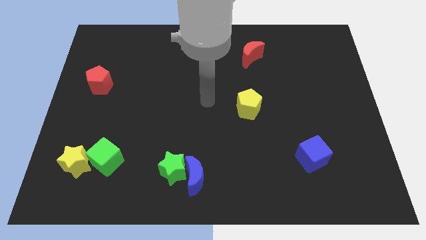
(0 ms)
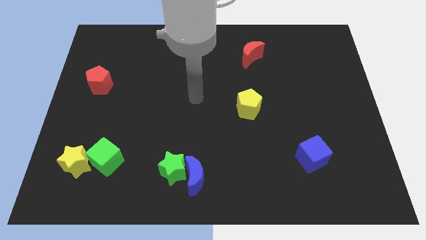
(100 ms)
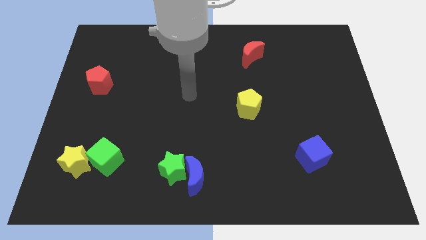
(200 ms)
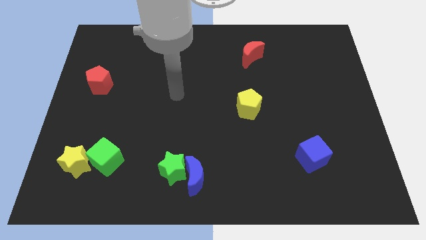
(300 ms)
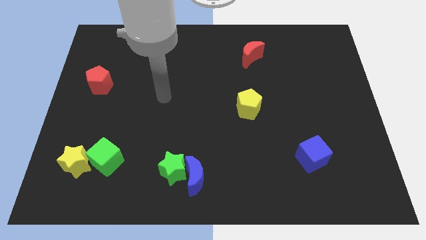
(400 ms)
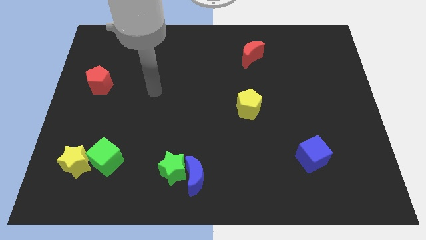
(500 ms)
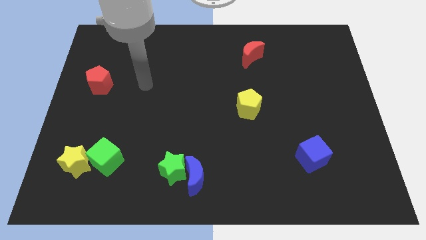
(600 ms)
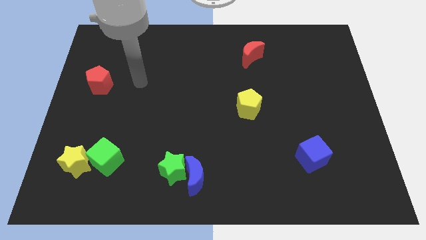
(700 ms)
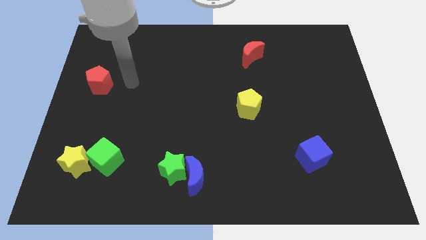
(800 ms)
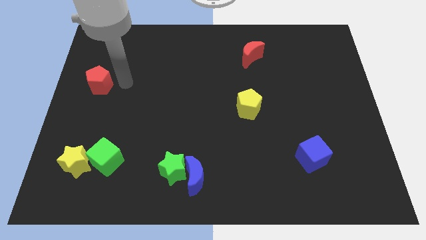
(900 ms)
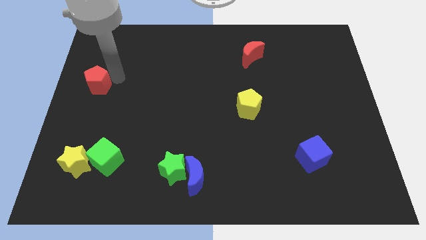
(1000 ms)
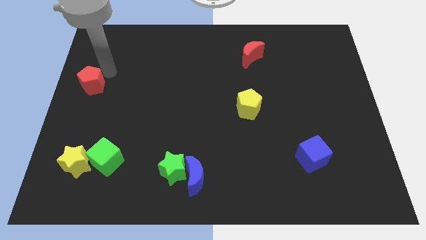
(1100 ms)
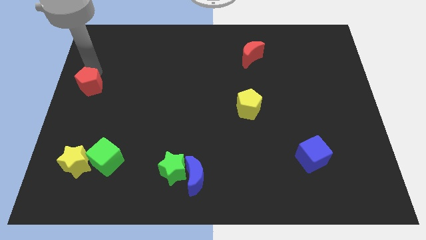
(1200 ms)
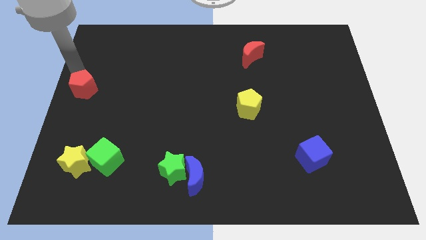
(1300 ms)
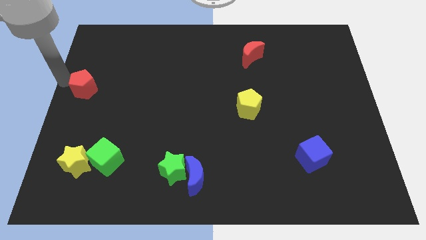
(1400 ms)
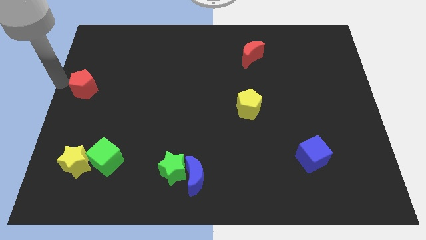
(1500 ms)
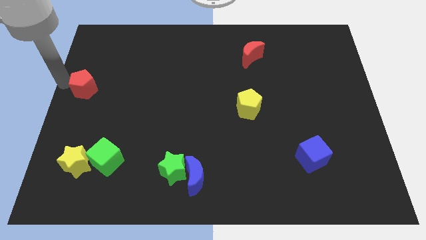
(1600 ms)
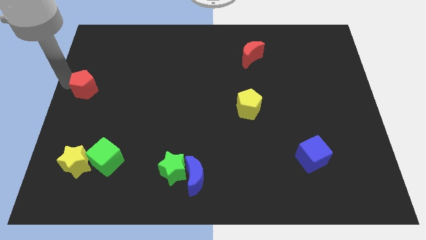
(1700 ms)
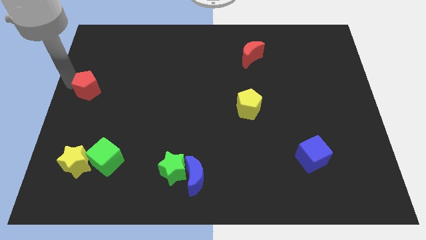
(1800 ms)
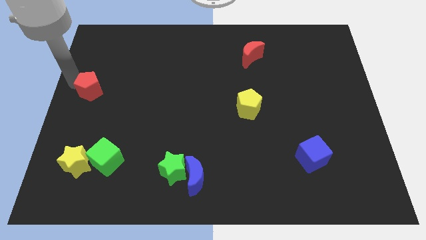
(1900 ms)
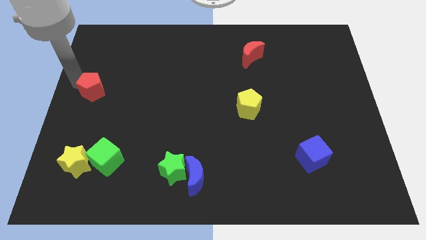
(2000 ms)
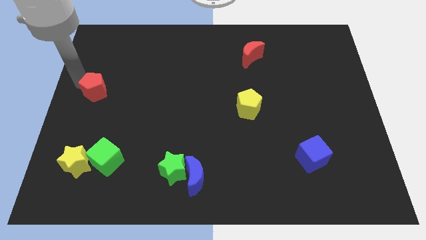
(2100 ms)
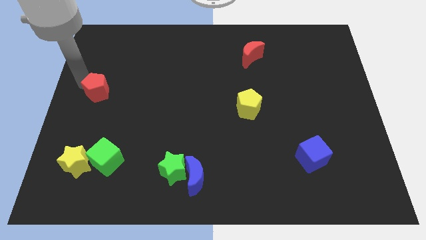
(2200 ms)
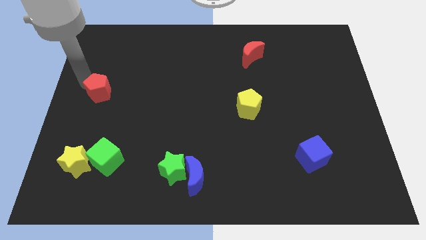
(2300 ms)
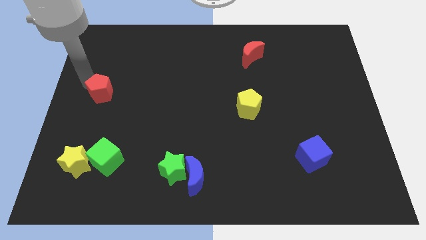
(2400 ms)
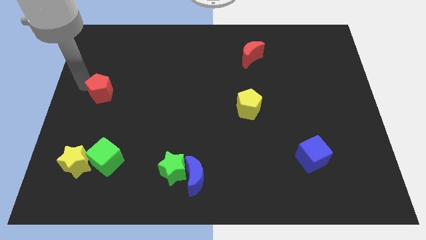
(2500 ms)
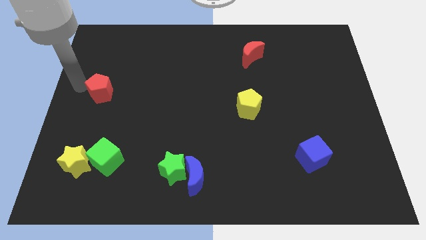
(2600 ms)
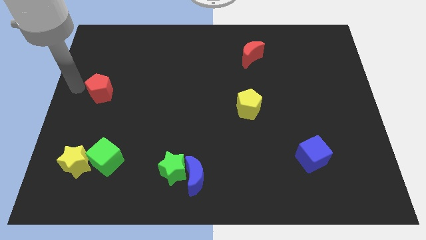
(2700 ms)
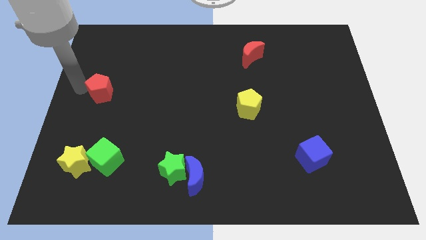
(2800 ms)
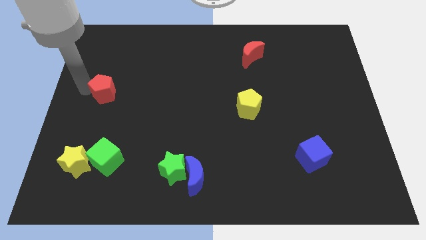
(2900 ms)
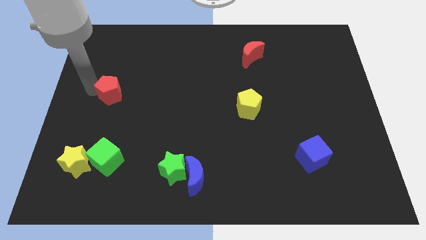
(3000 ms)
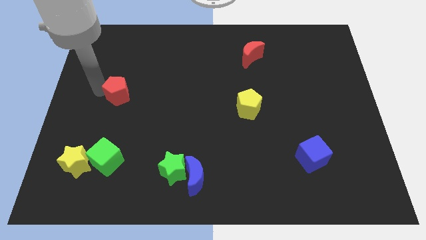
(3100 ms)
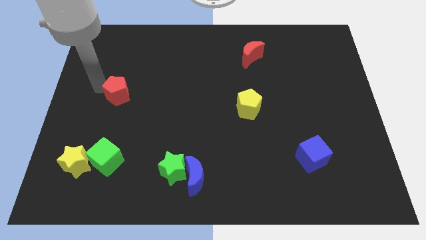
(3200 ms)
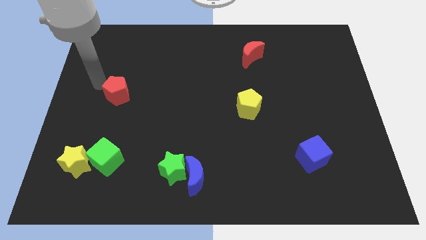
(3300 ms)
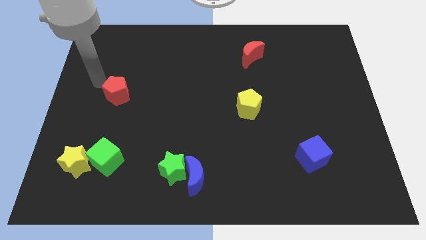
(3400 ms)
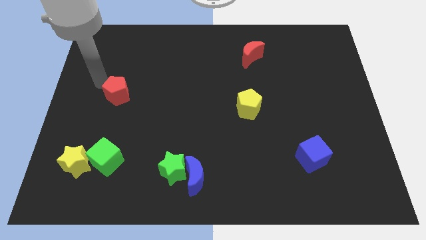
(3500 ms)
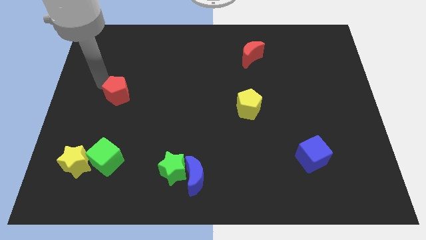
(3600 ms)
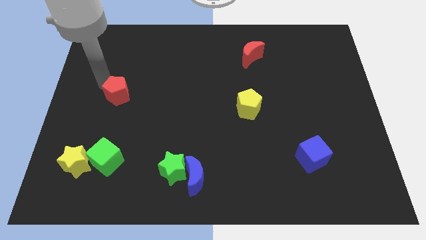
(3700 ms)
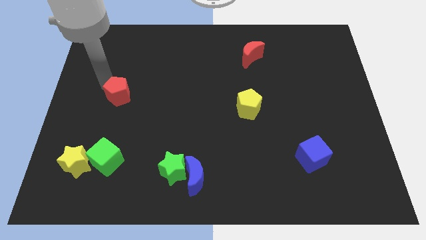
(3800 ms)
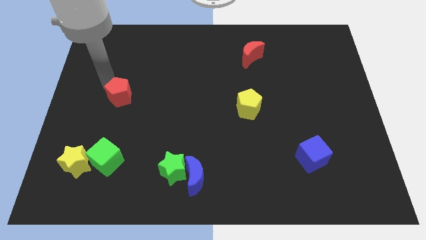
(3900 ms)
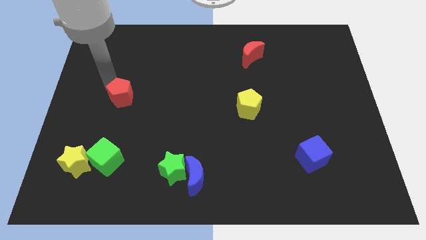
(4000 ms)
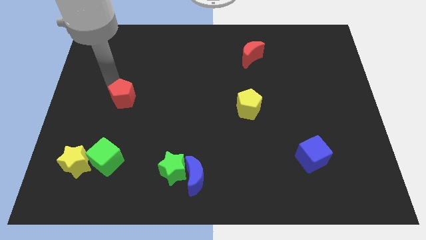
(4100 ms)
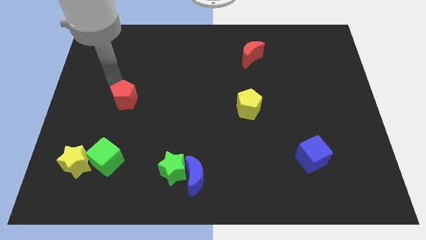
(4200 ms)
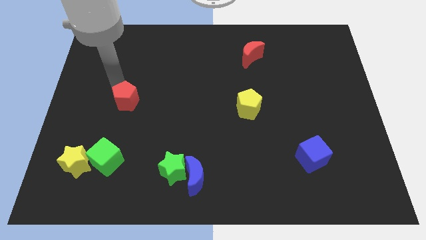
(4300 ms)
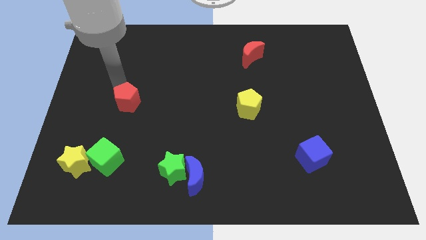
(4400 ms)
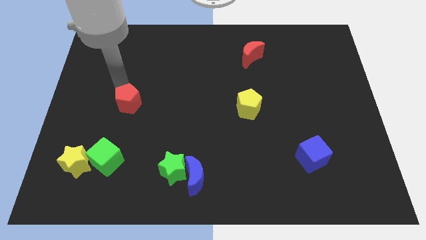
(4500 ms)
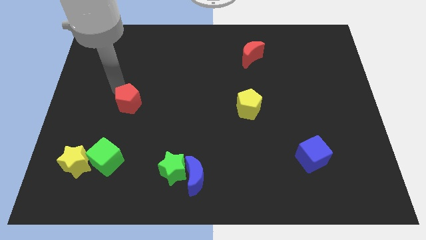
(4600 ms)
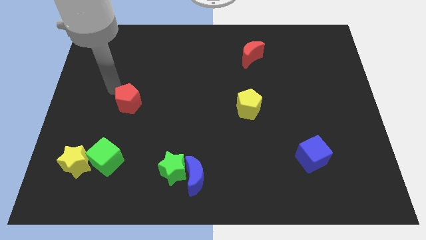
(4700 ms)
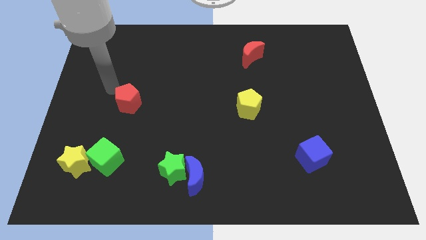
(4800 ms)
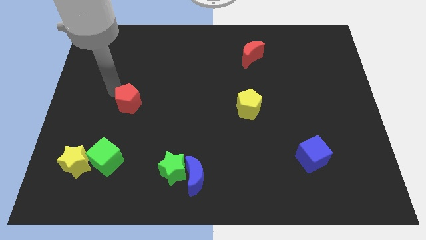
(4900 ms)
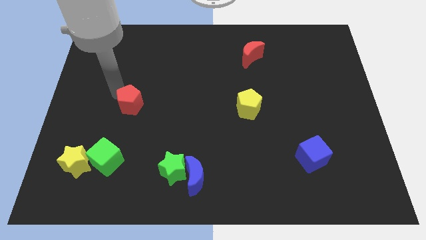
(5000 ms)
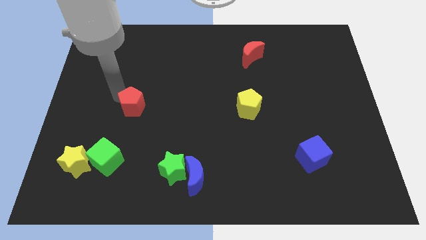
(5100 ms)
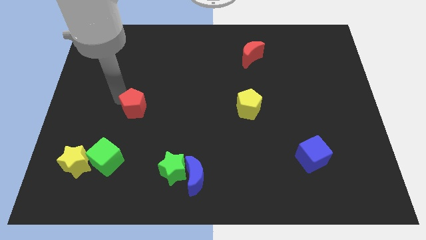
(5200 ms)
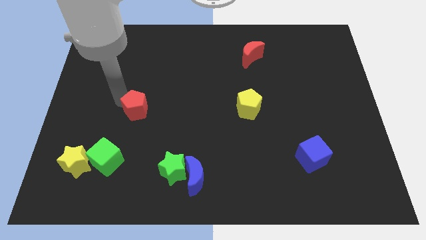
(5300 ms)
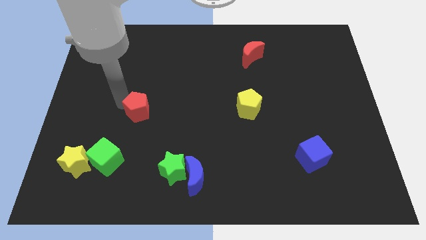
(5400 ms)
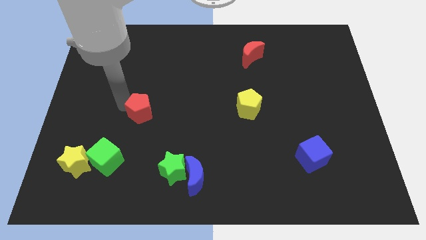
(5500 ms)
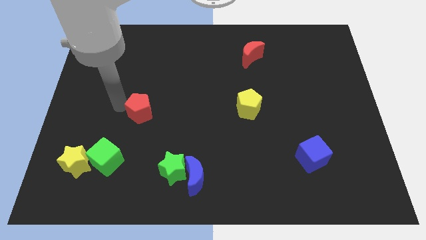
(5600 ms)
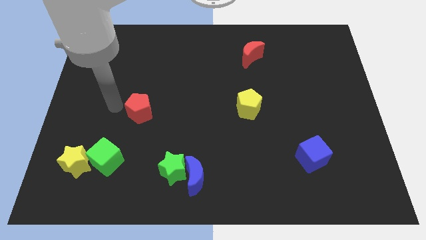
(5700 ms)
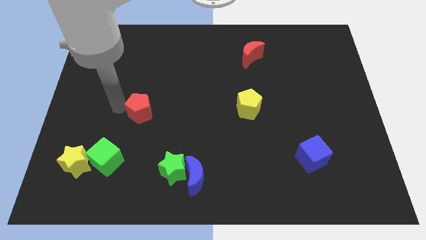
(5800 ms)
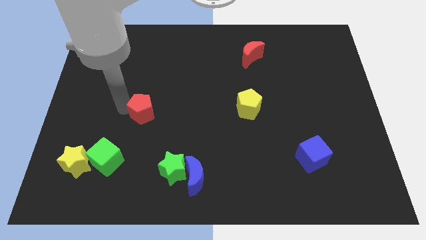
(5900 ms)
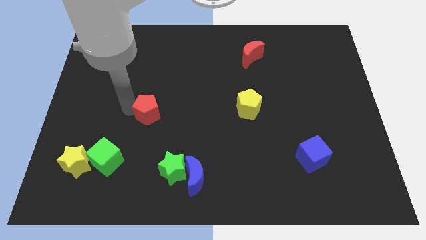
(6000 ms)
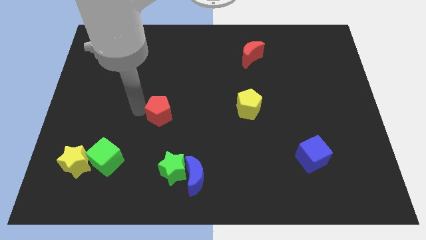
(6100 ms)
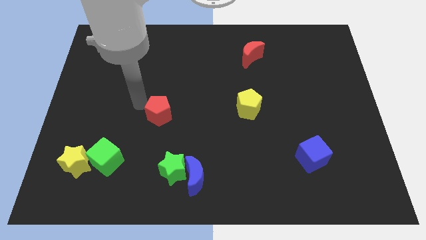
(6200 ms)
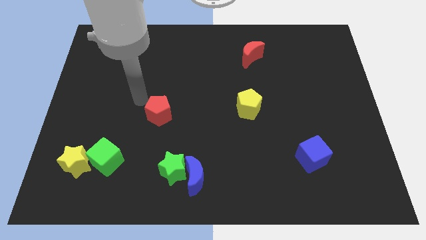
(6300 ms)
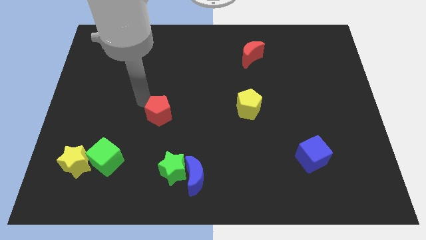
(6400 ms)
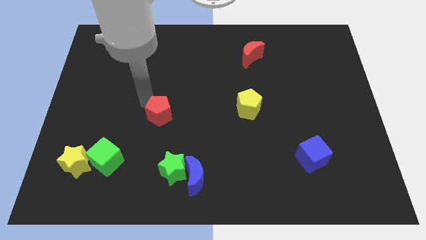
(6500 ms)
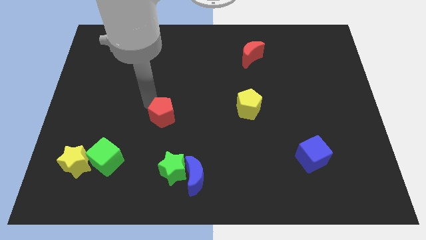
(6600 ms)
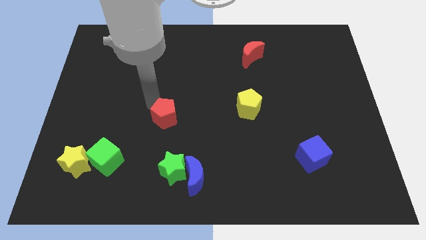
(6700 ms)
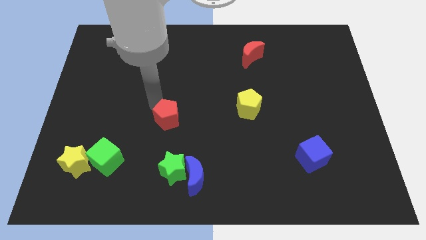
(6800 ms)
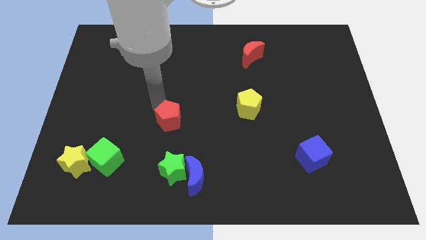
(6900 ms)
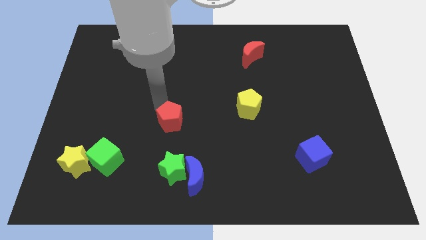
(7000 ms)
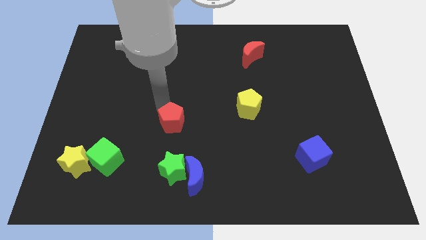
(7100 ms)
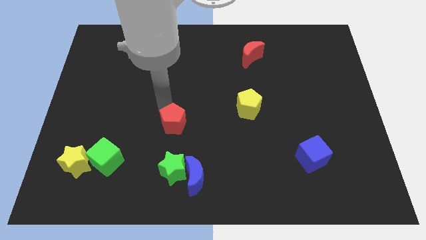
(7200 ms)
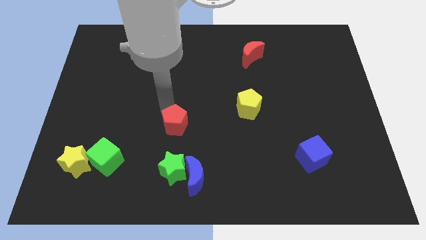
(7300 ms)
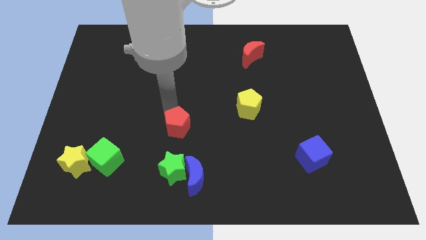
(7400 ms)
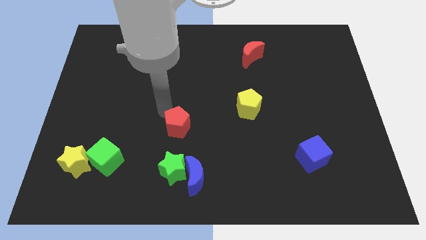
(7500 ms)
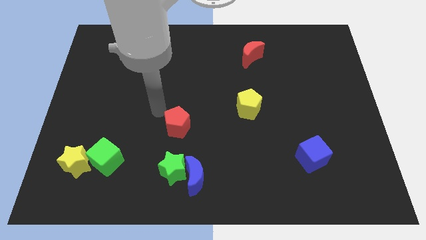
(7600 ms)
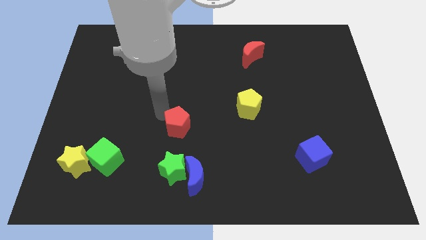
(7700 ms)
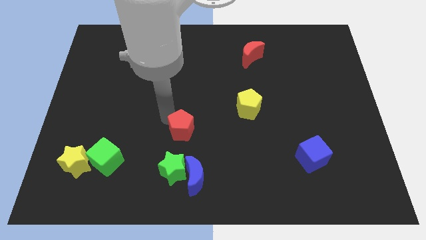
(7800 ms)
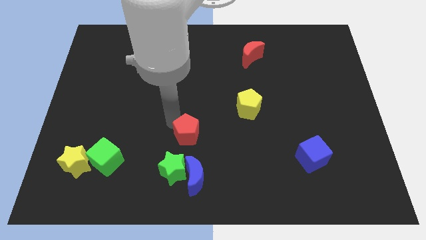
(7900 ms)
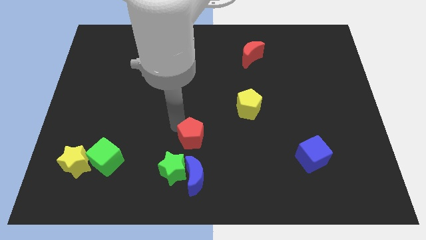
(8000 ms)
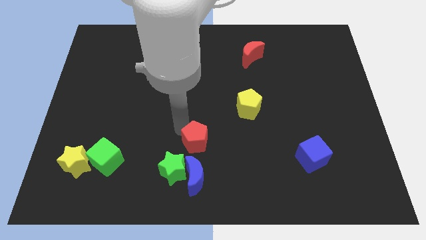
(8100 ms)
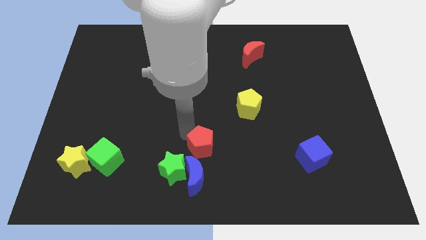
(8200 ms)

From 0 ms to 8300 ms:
slide the red pentagon diagonally up and to the right of the blue moon
